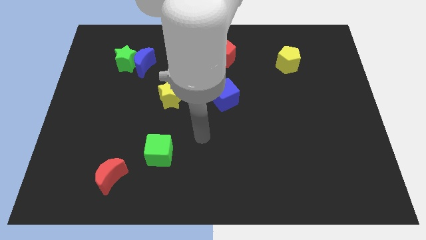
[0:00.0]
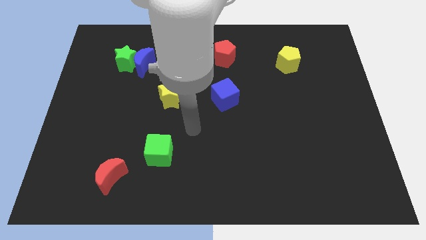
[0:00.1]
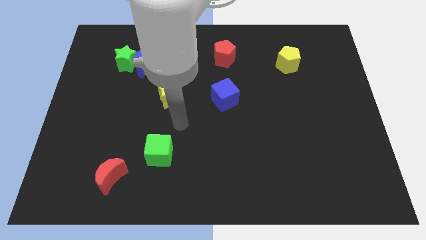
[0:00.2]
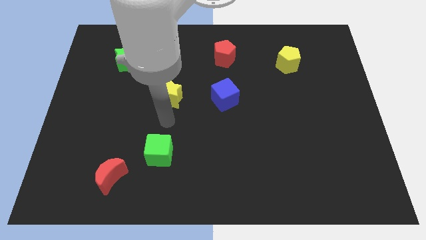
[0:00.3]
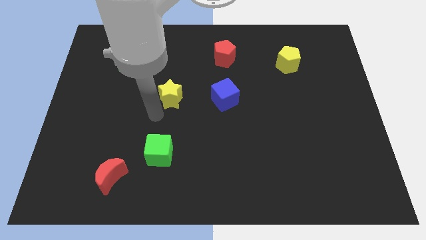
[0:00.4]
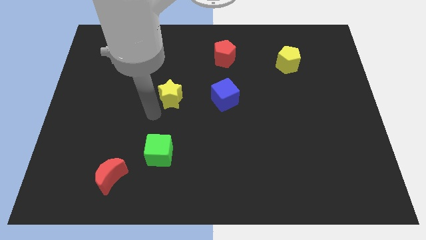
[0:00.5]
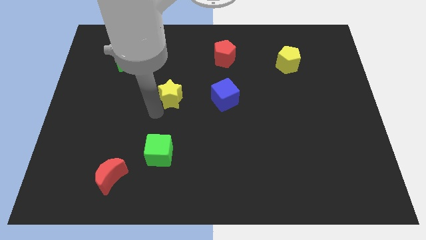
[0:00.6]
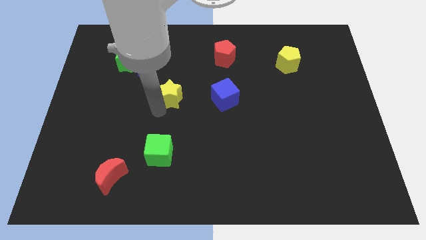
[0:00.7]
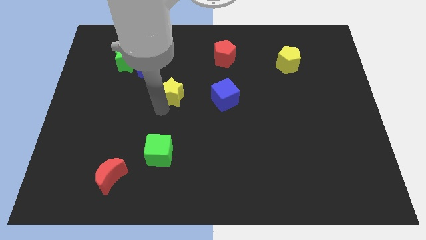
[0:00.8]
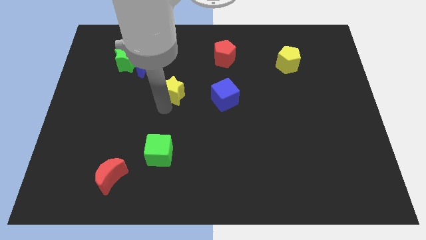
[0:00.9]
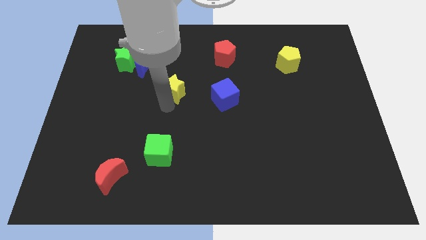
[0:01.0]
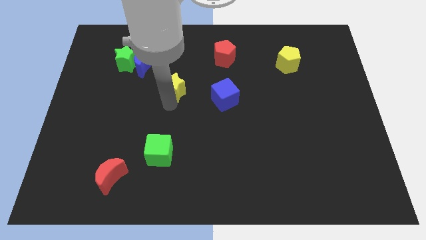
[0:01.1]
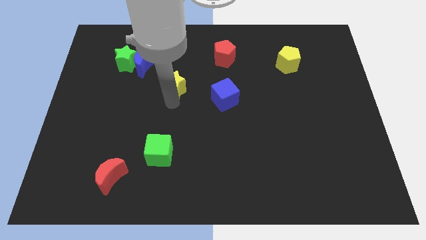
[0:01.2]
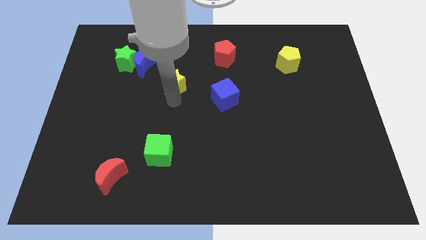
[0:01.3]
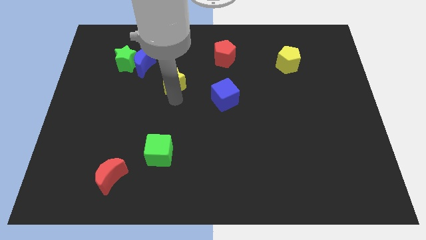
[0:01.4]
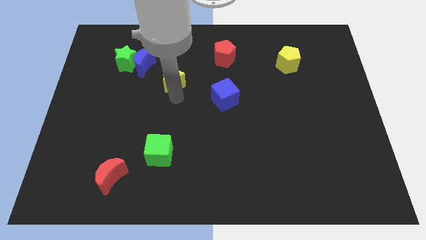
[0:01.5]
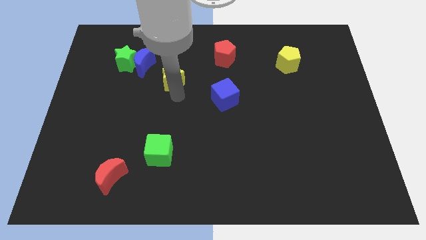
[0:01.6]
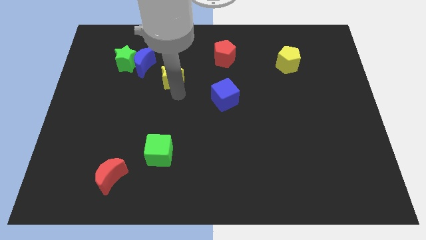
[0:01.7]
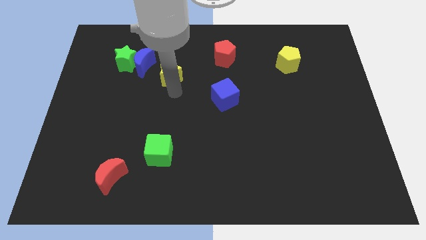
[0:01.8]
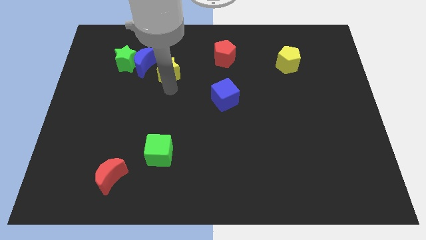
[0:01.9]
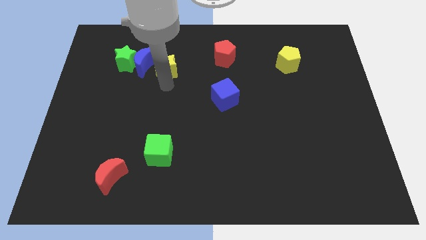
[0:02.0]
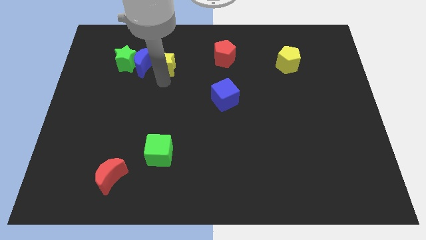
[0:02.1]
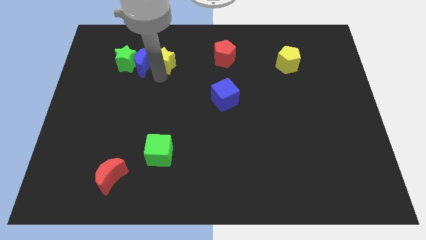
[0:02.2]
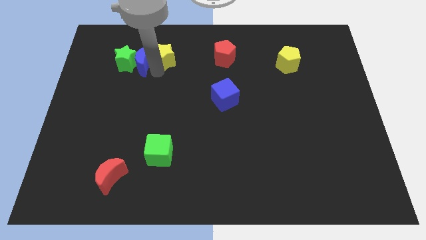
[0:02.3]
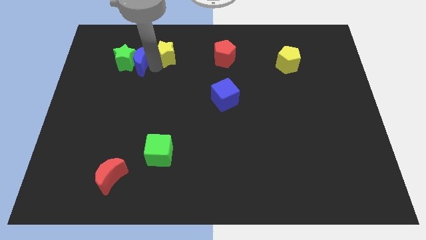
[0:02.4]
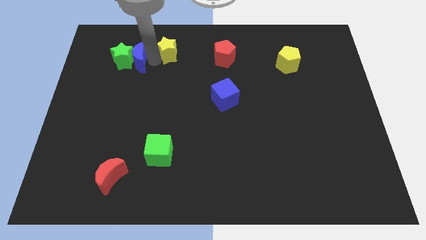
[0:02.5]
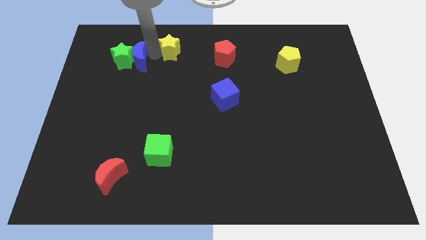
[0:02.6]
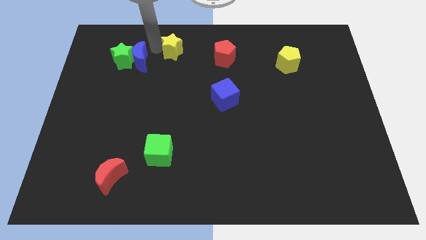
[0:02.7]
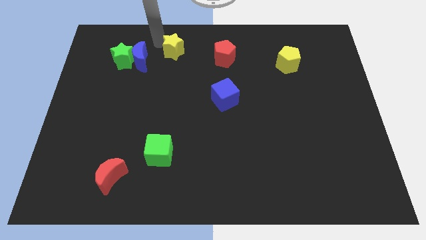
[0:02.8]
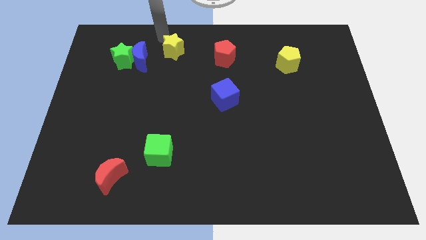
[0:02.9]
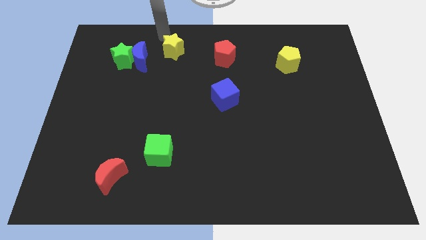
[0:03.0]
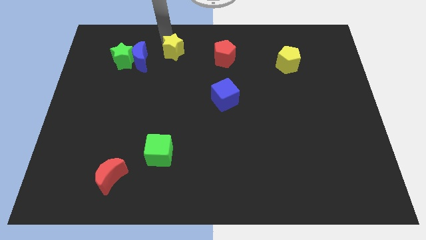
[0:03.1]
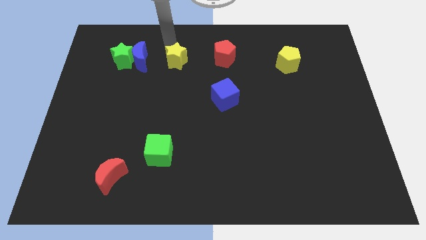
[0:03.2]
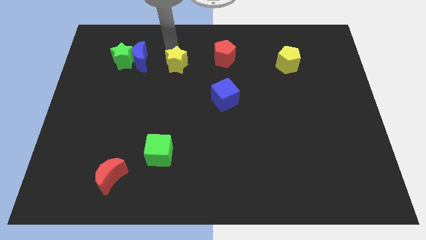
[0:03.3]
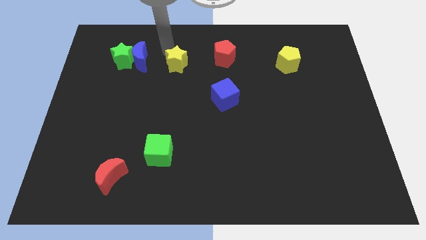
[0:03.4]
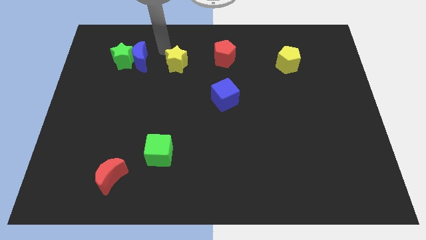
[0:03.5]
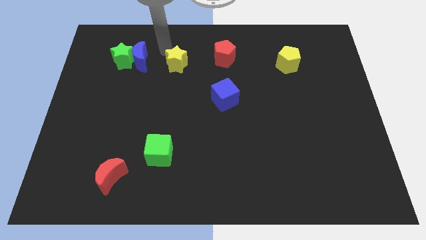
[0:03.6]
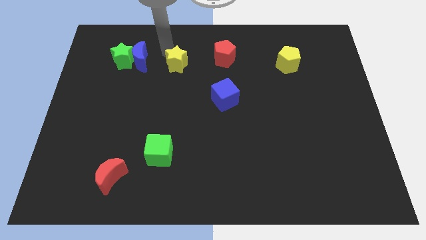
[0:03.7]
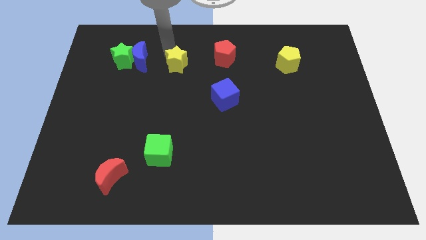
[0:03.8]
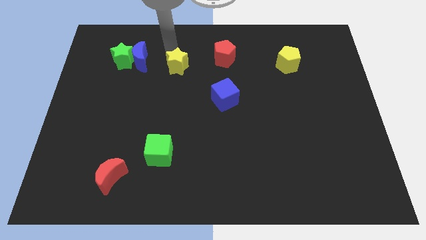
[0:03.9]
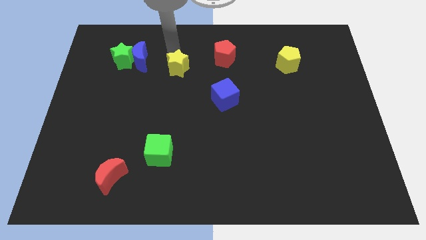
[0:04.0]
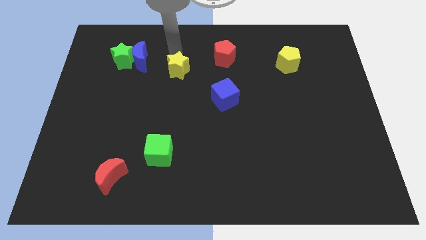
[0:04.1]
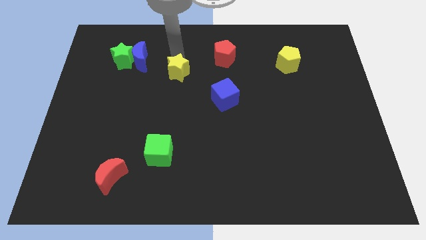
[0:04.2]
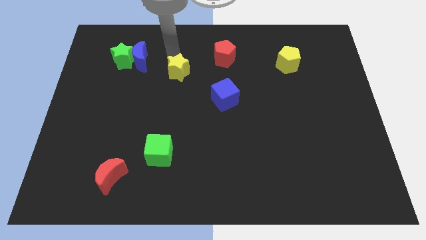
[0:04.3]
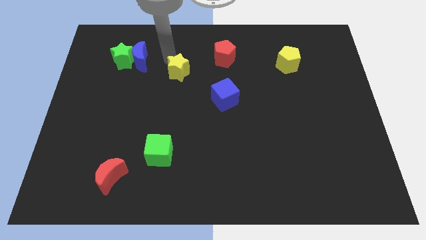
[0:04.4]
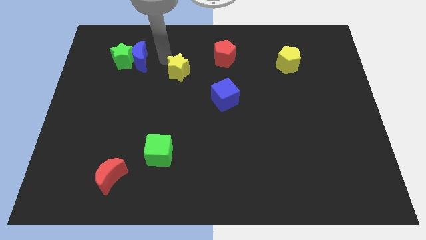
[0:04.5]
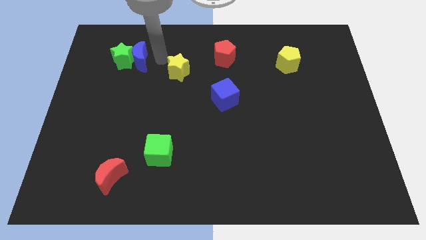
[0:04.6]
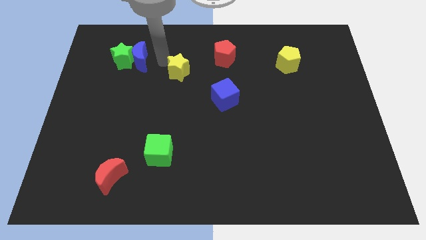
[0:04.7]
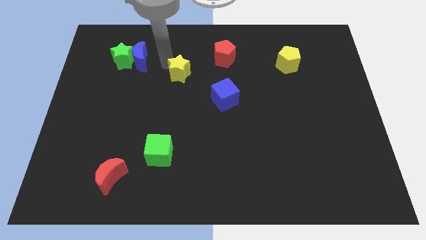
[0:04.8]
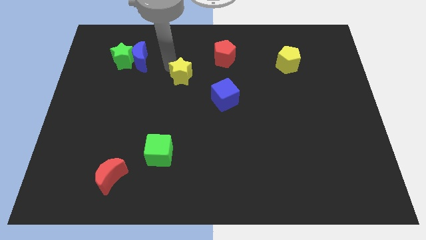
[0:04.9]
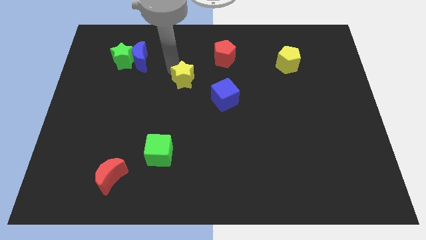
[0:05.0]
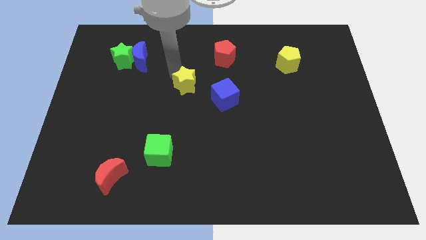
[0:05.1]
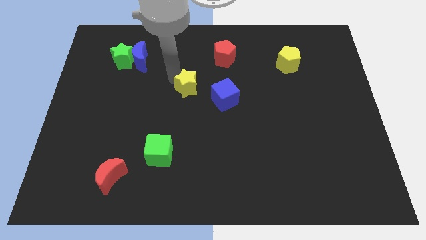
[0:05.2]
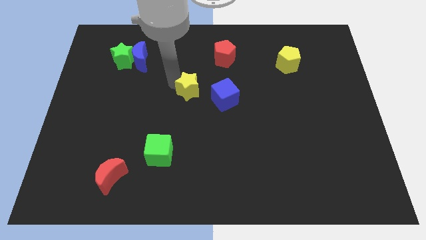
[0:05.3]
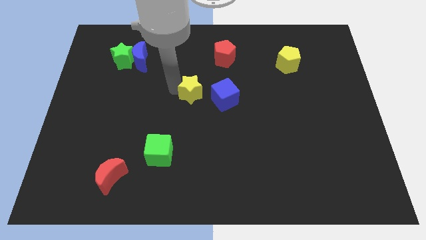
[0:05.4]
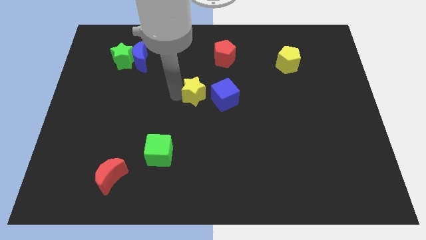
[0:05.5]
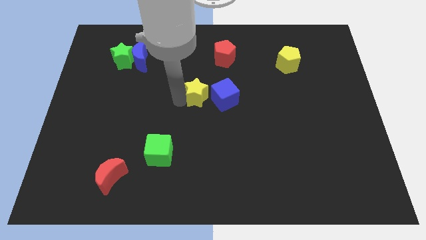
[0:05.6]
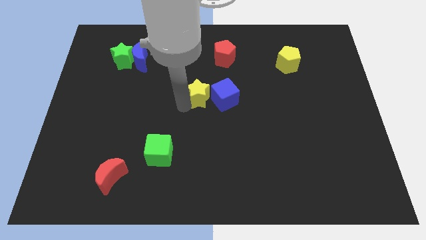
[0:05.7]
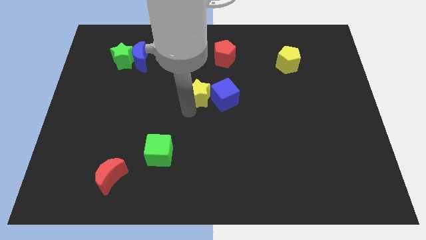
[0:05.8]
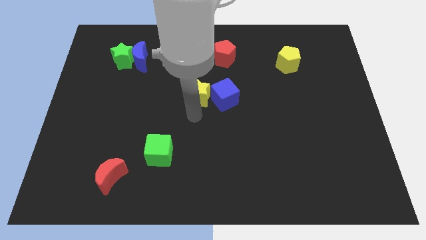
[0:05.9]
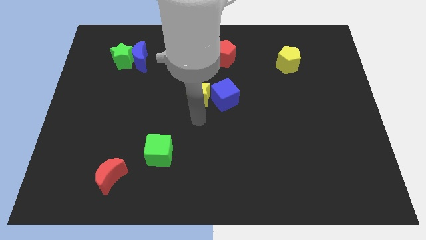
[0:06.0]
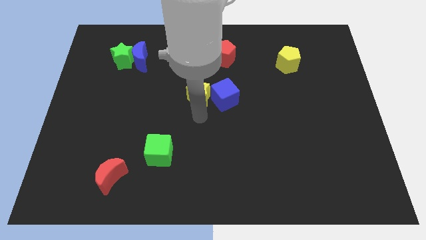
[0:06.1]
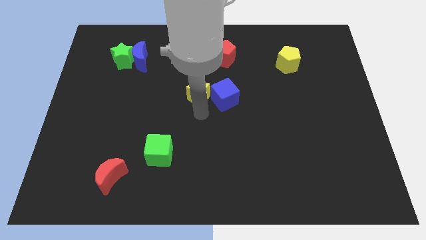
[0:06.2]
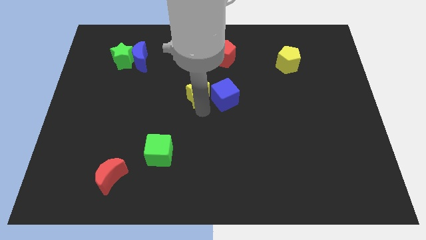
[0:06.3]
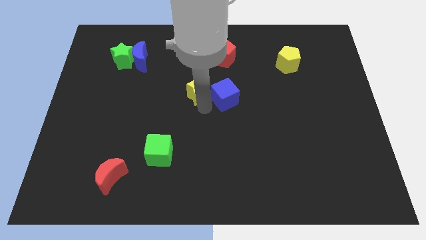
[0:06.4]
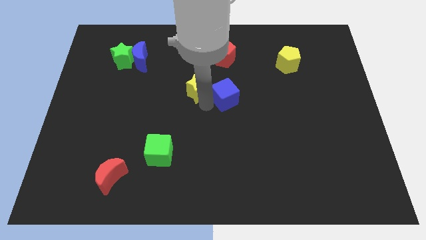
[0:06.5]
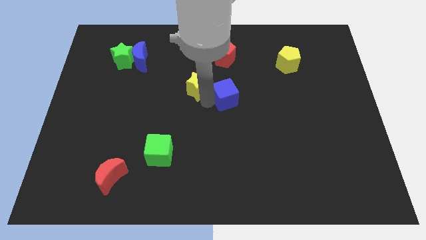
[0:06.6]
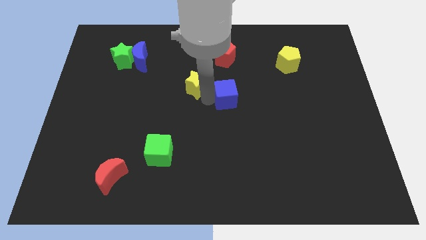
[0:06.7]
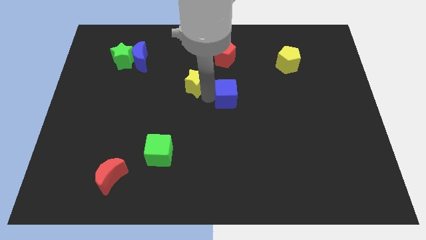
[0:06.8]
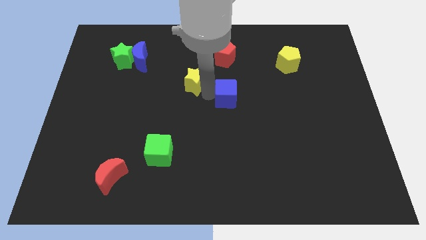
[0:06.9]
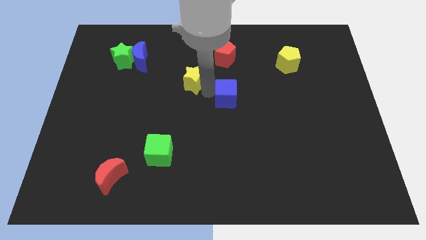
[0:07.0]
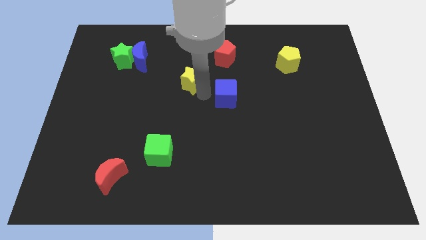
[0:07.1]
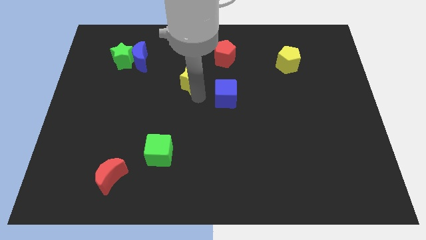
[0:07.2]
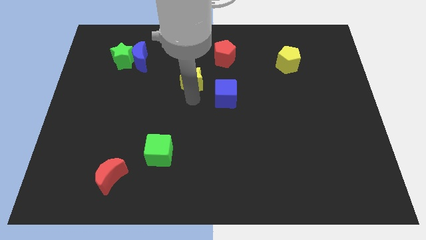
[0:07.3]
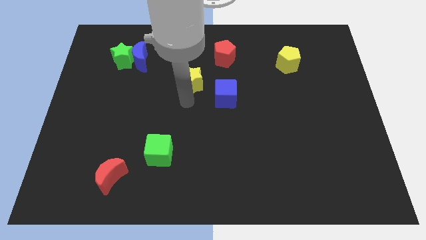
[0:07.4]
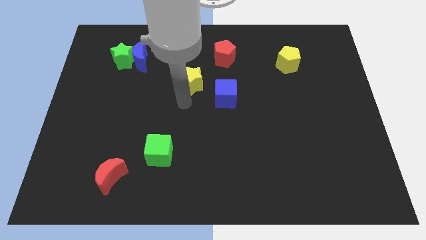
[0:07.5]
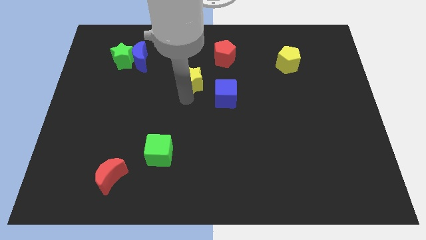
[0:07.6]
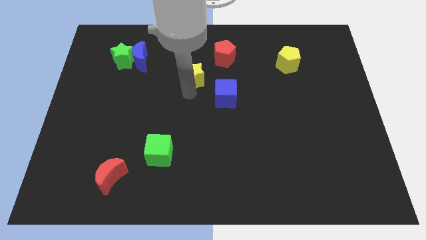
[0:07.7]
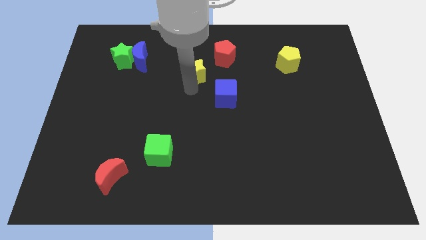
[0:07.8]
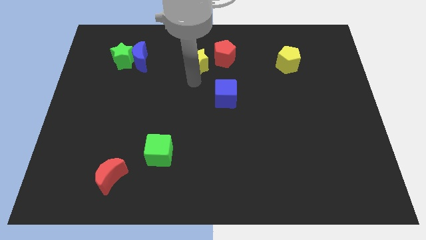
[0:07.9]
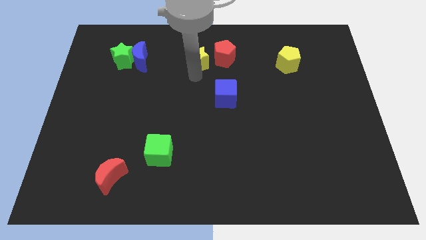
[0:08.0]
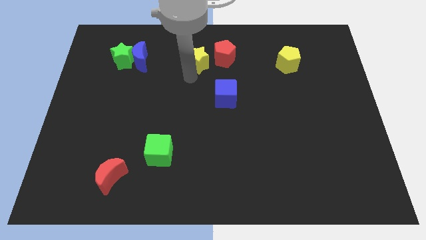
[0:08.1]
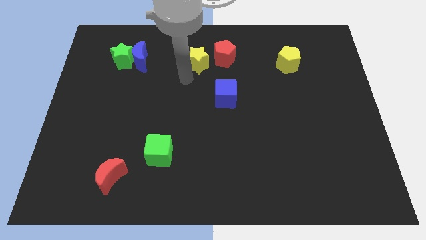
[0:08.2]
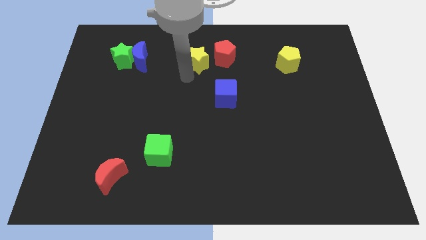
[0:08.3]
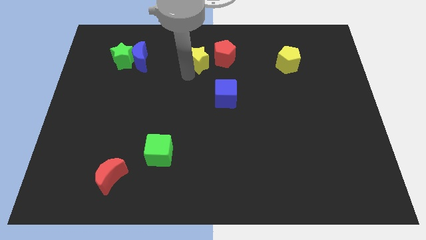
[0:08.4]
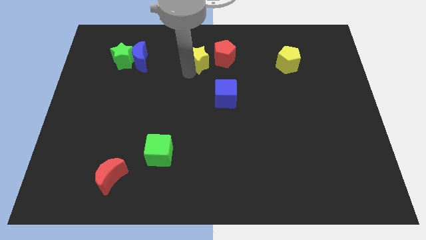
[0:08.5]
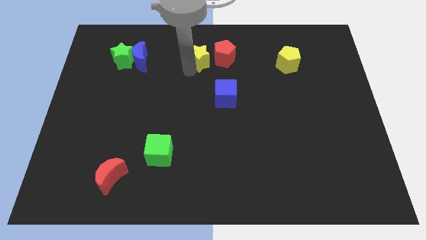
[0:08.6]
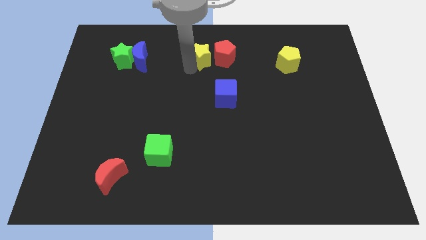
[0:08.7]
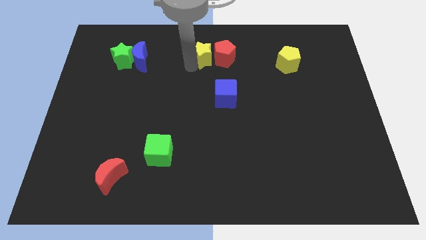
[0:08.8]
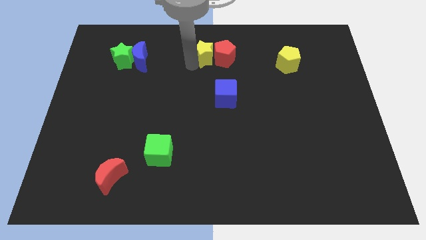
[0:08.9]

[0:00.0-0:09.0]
put the yellow star to the towards your base
